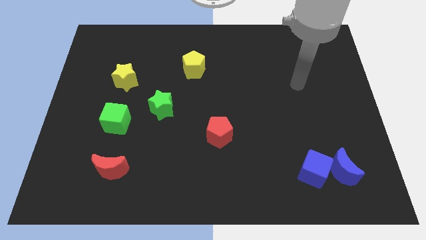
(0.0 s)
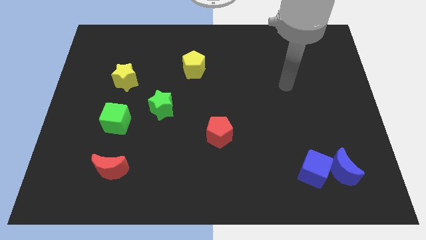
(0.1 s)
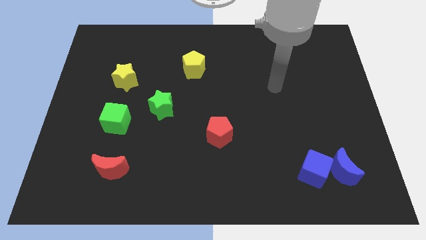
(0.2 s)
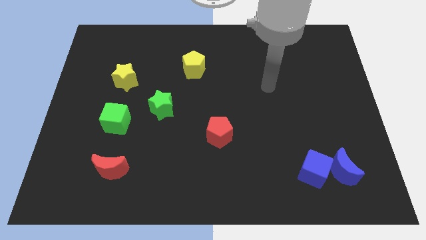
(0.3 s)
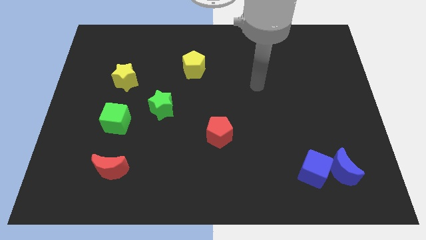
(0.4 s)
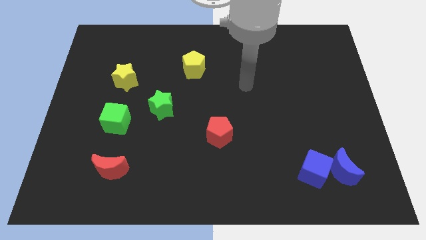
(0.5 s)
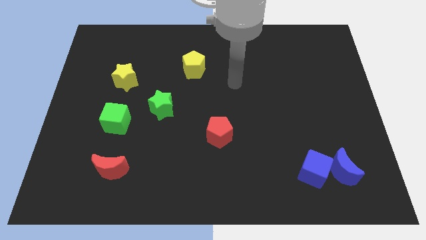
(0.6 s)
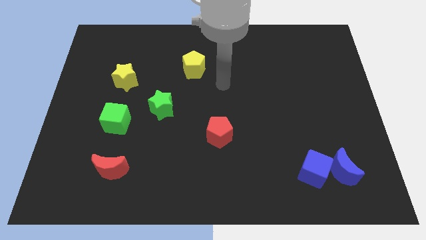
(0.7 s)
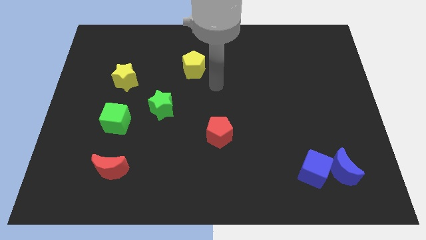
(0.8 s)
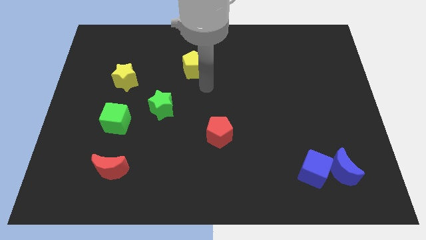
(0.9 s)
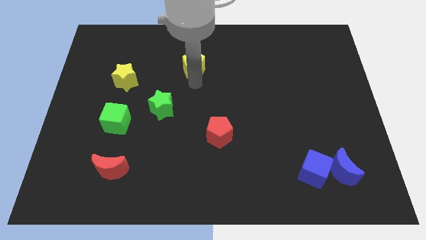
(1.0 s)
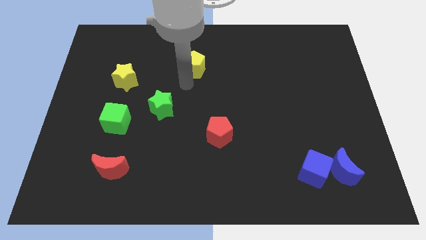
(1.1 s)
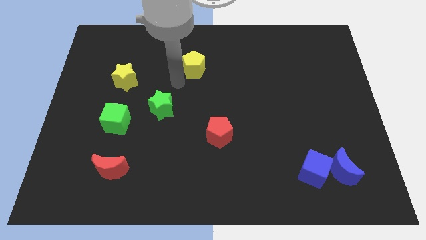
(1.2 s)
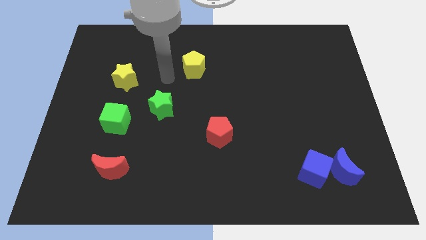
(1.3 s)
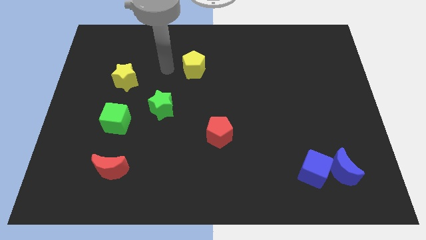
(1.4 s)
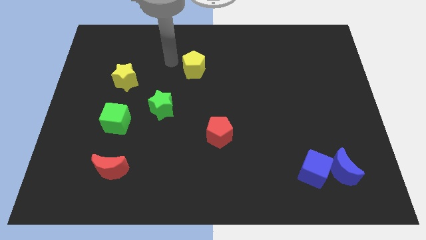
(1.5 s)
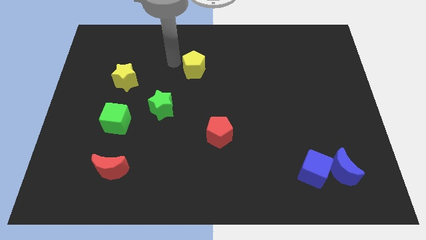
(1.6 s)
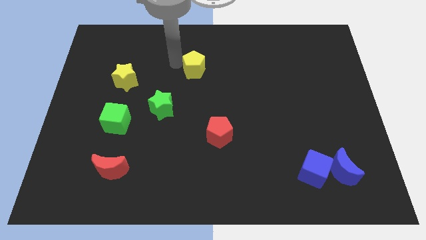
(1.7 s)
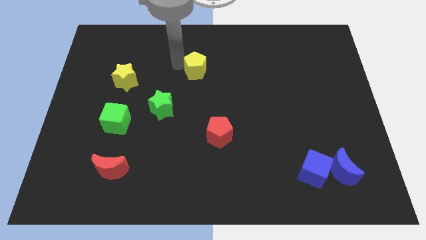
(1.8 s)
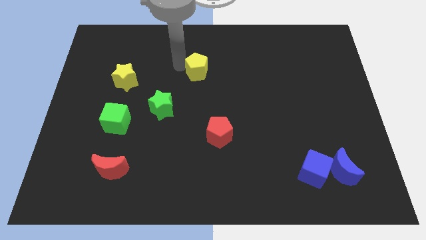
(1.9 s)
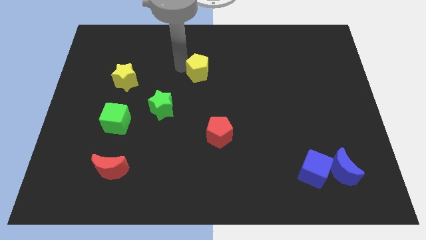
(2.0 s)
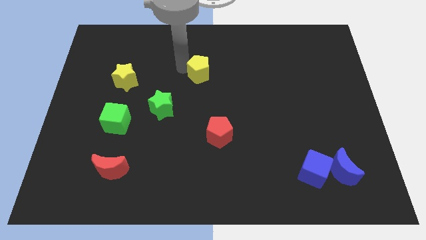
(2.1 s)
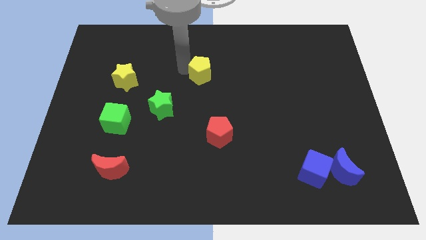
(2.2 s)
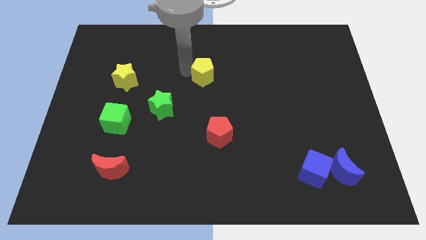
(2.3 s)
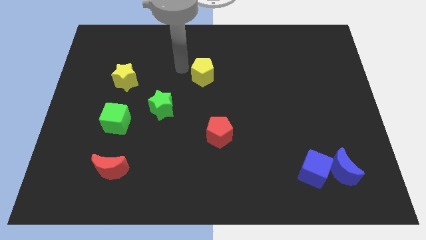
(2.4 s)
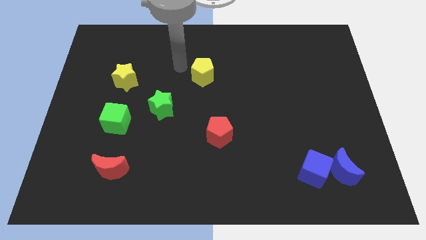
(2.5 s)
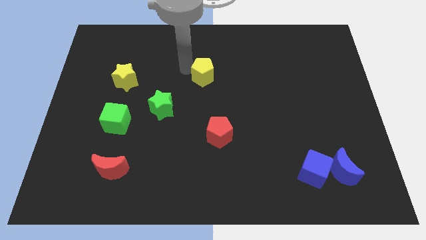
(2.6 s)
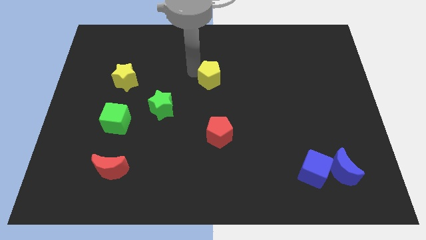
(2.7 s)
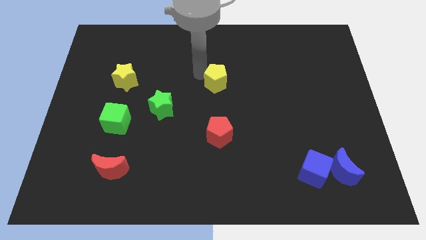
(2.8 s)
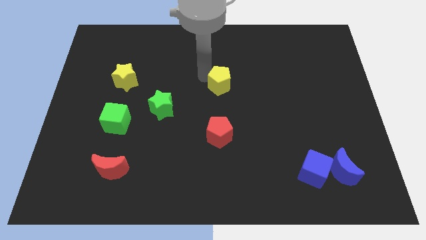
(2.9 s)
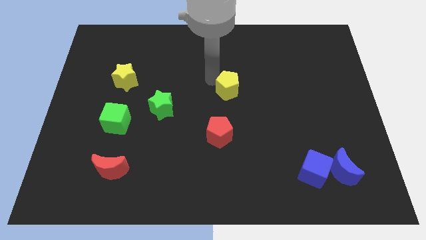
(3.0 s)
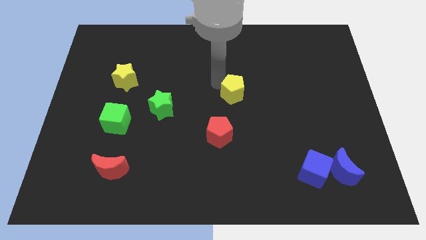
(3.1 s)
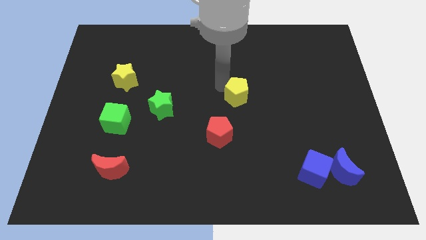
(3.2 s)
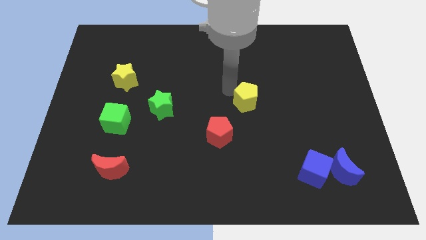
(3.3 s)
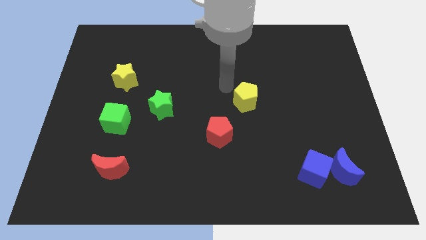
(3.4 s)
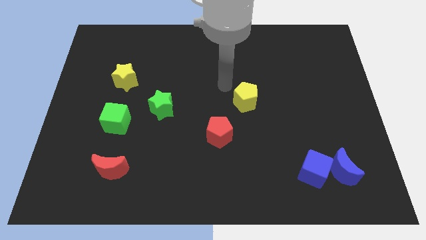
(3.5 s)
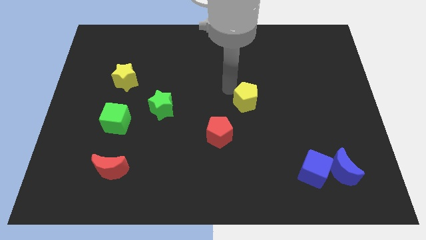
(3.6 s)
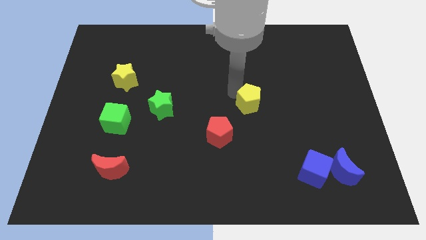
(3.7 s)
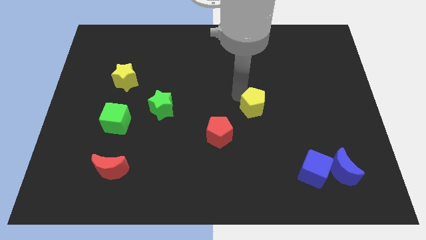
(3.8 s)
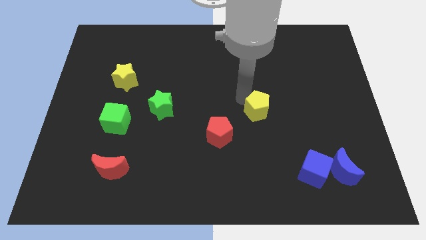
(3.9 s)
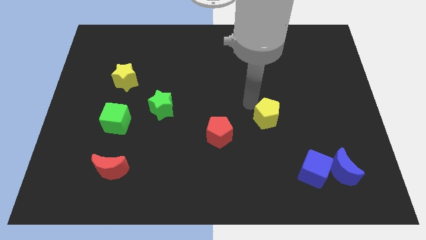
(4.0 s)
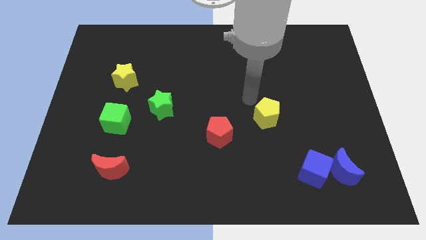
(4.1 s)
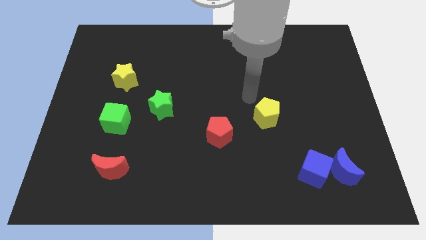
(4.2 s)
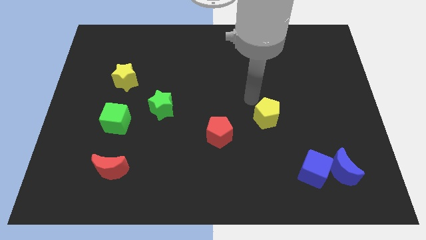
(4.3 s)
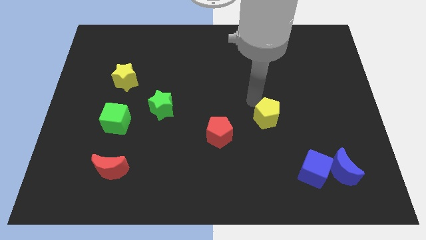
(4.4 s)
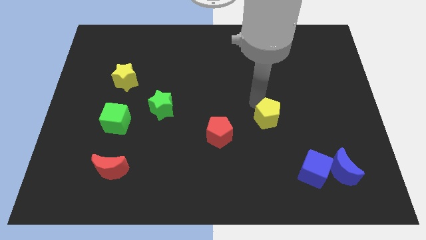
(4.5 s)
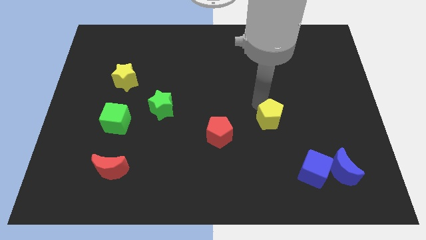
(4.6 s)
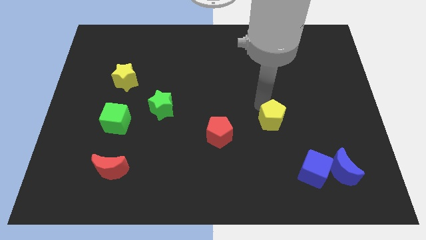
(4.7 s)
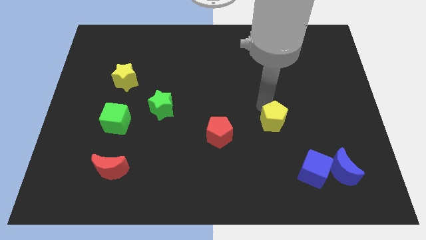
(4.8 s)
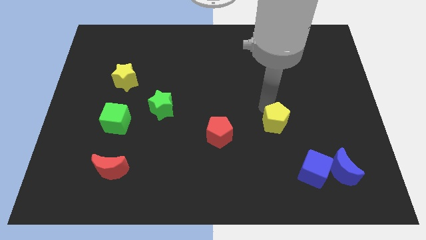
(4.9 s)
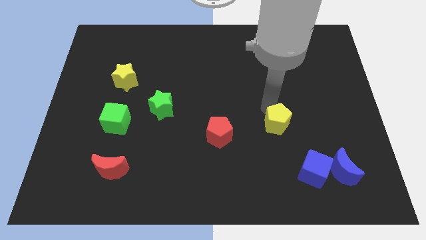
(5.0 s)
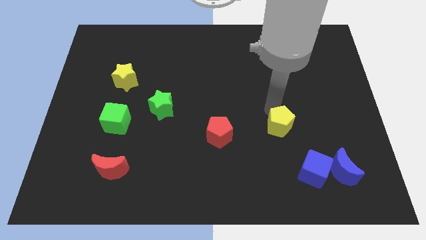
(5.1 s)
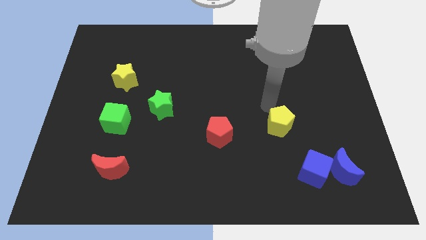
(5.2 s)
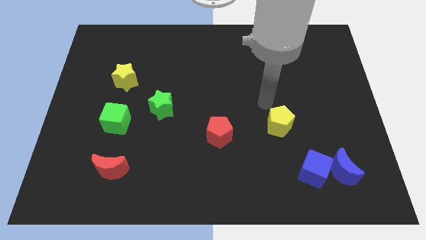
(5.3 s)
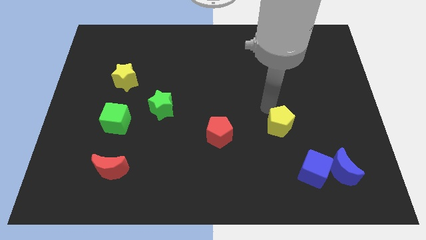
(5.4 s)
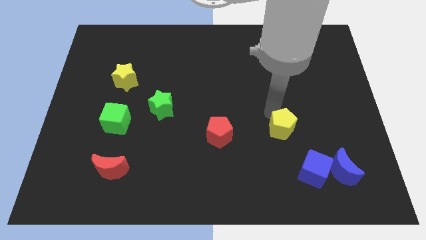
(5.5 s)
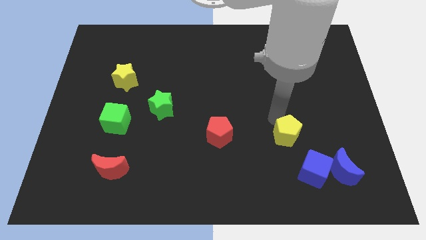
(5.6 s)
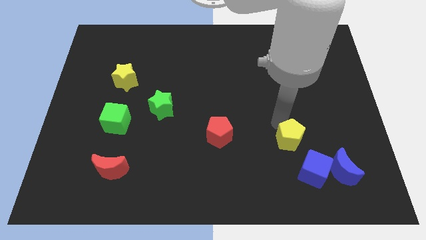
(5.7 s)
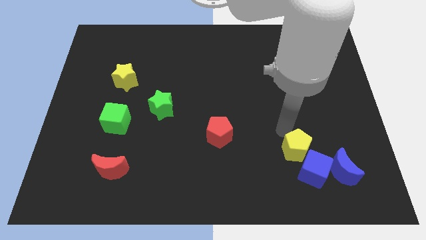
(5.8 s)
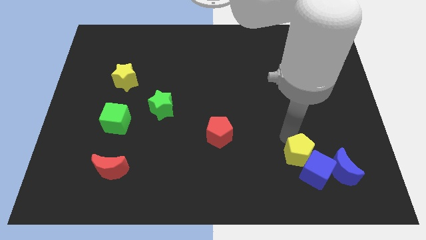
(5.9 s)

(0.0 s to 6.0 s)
move the yellow pentagon to the blue cube

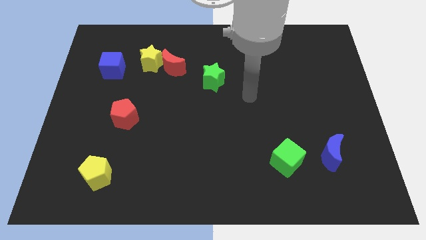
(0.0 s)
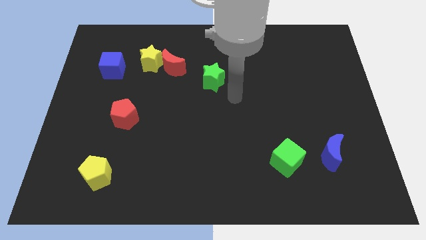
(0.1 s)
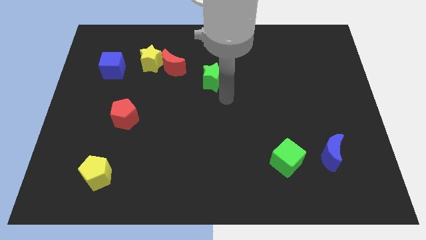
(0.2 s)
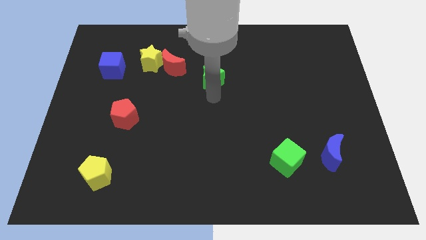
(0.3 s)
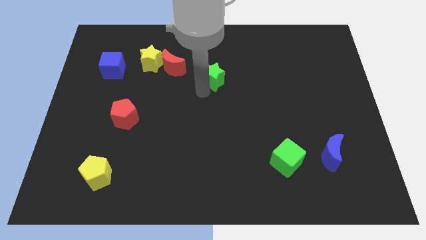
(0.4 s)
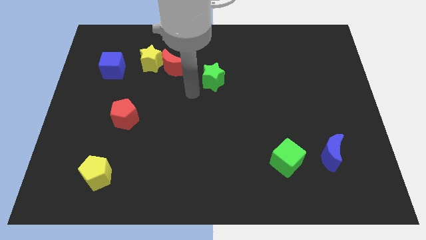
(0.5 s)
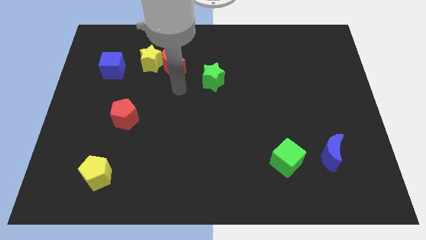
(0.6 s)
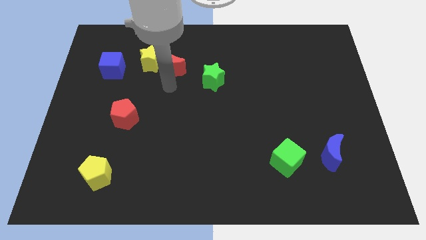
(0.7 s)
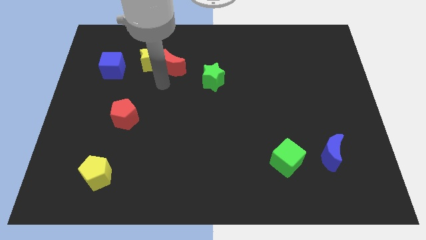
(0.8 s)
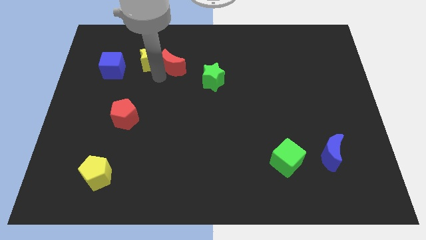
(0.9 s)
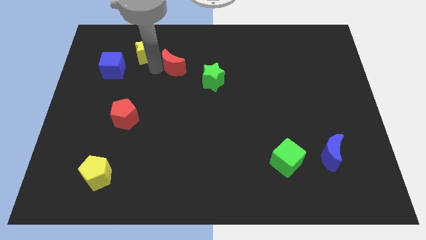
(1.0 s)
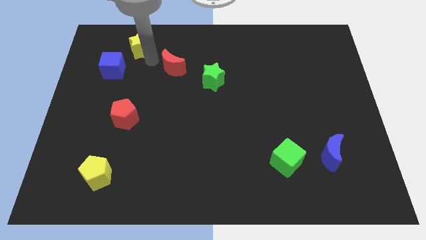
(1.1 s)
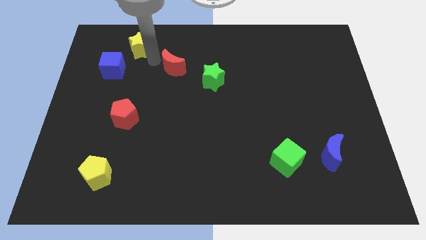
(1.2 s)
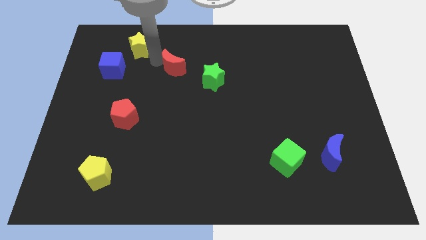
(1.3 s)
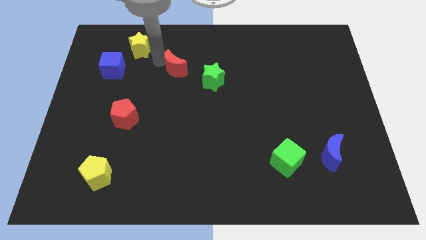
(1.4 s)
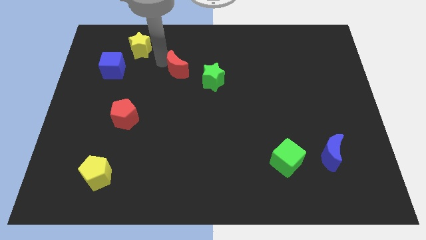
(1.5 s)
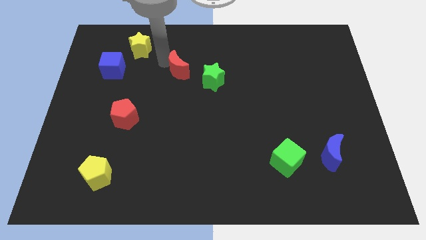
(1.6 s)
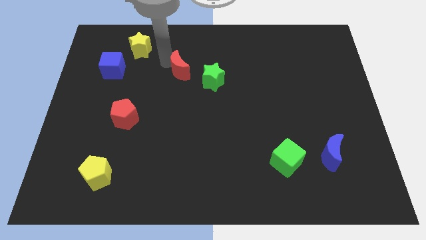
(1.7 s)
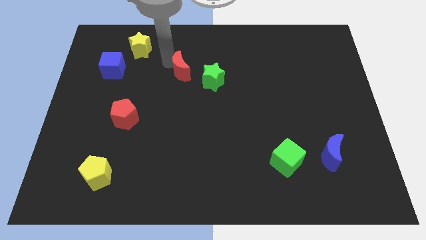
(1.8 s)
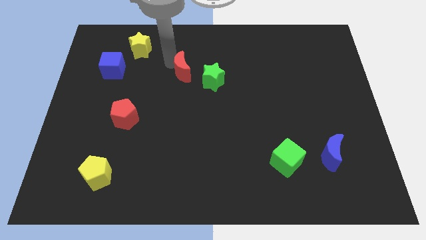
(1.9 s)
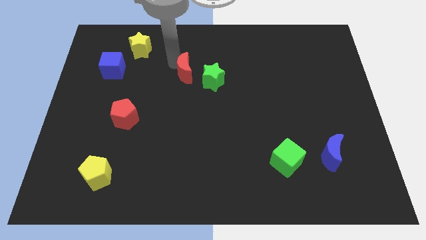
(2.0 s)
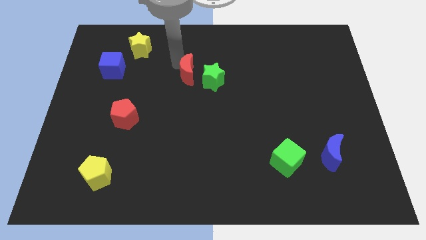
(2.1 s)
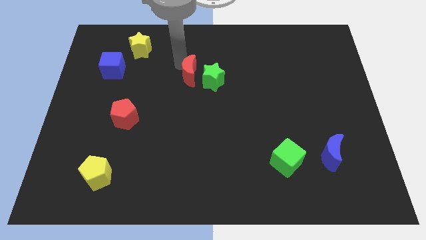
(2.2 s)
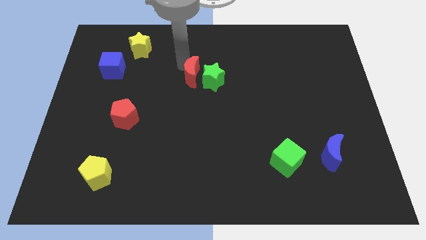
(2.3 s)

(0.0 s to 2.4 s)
push the red moon towards the green star
